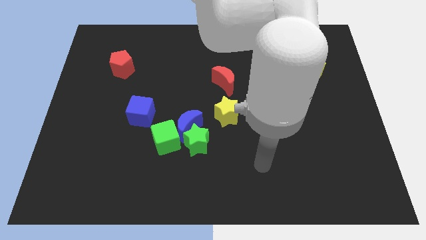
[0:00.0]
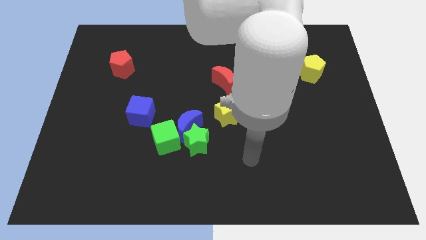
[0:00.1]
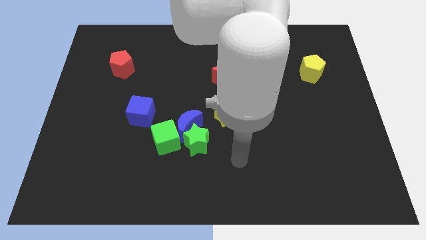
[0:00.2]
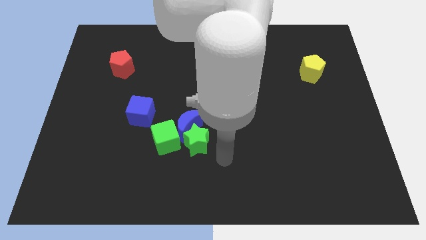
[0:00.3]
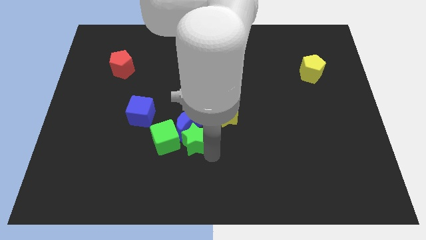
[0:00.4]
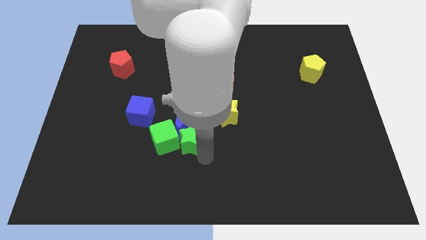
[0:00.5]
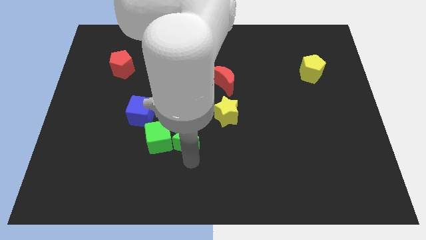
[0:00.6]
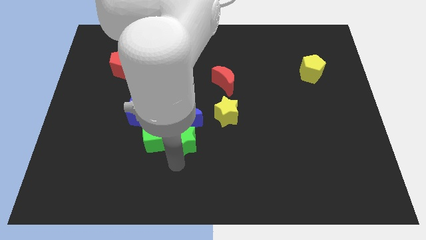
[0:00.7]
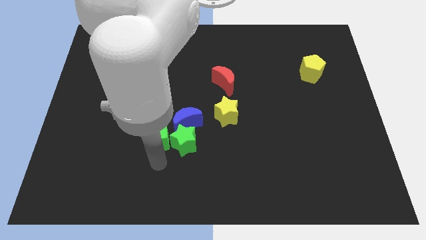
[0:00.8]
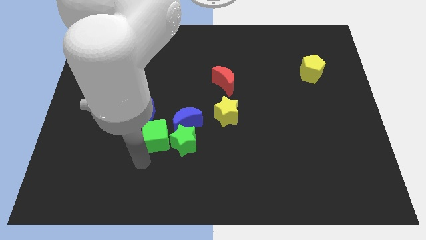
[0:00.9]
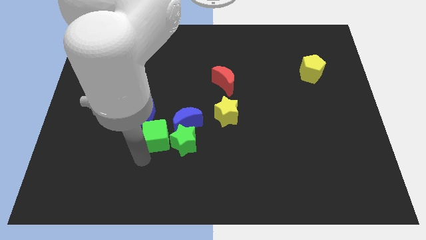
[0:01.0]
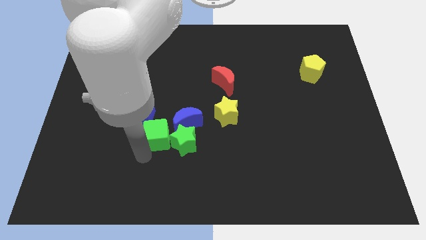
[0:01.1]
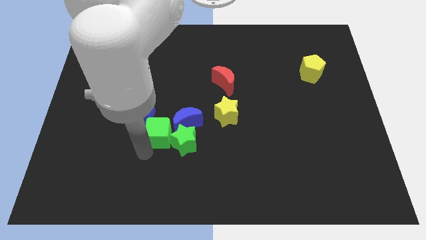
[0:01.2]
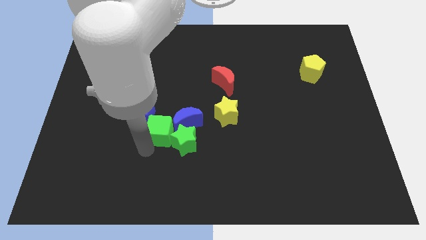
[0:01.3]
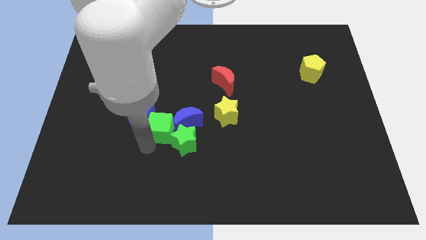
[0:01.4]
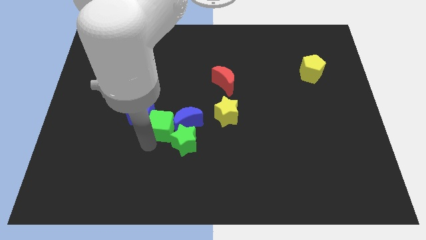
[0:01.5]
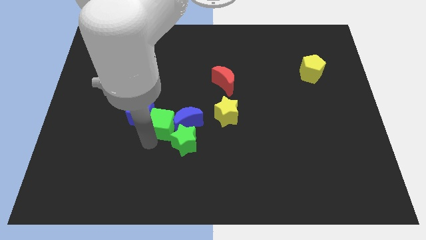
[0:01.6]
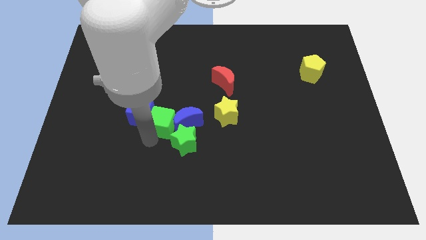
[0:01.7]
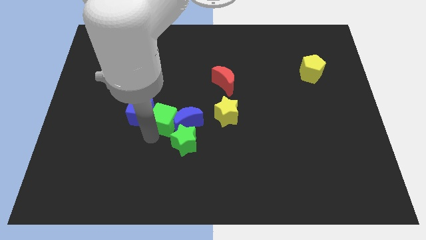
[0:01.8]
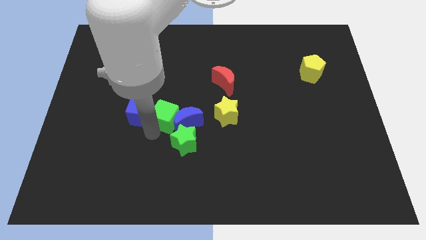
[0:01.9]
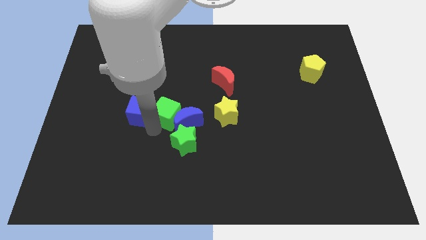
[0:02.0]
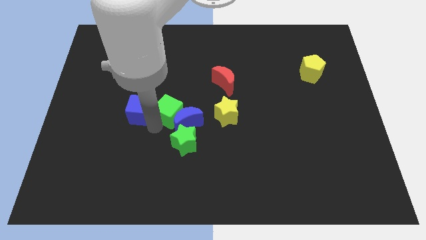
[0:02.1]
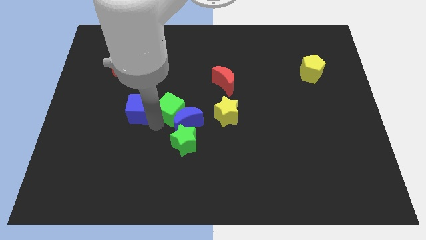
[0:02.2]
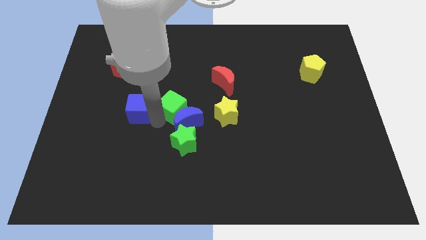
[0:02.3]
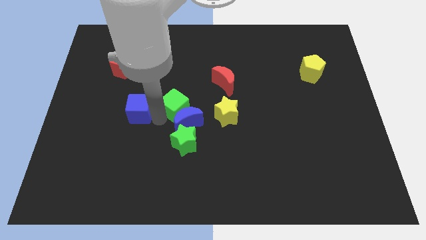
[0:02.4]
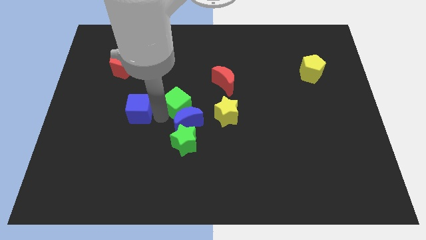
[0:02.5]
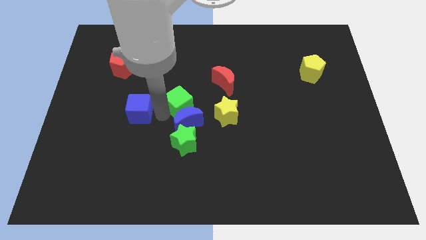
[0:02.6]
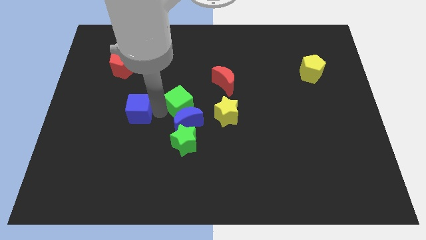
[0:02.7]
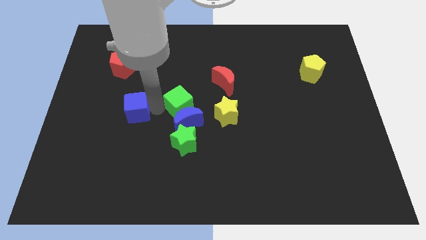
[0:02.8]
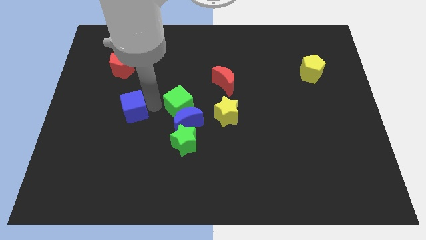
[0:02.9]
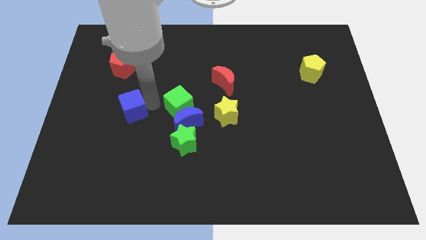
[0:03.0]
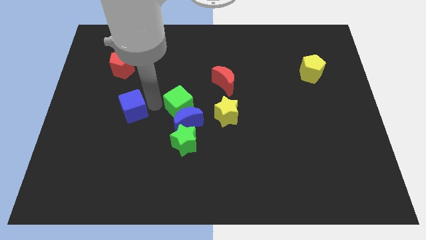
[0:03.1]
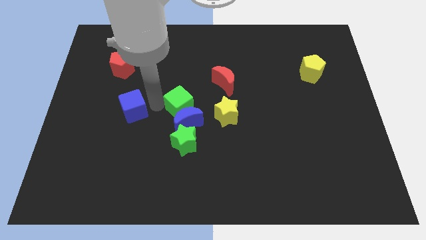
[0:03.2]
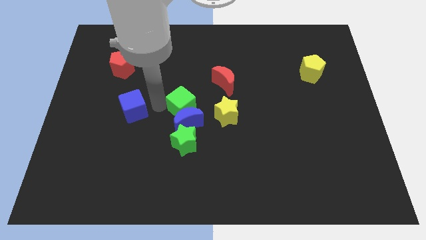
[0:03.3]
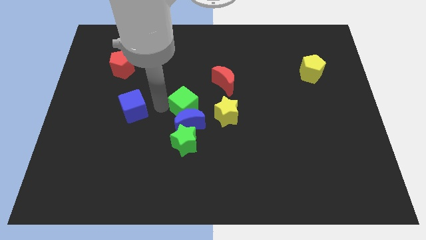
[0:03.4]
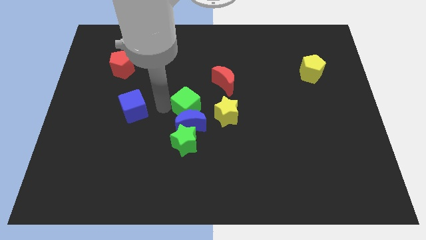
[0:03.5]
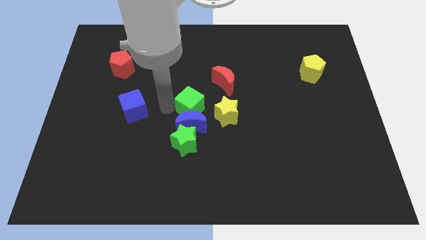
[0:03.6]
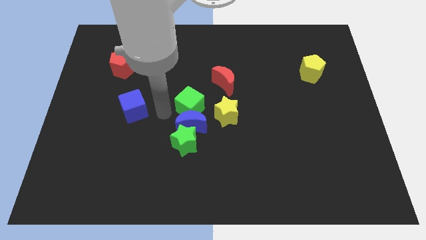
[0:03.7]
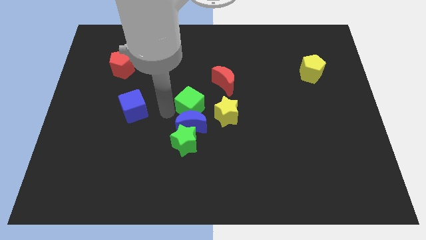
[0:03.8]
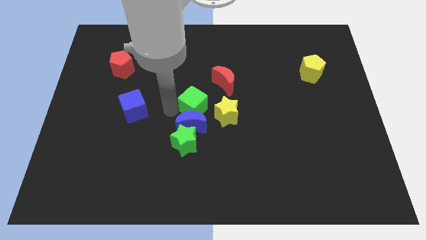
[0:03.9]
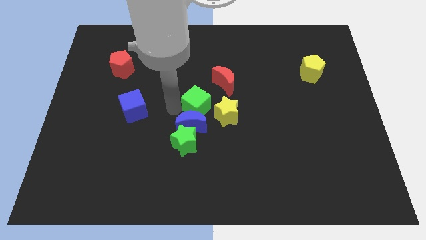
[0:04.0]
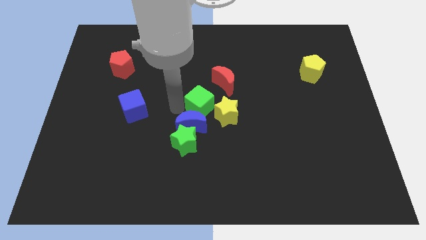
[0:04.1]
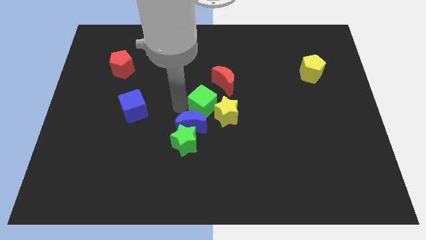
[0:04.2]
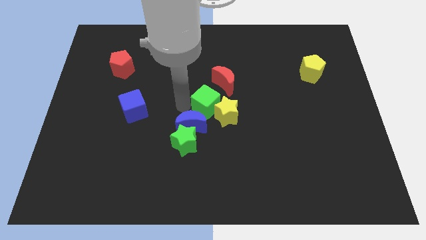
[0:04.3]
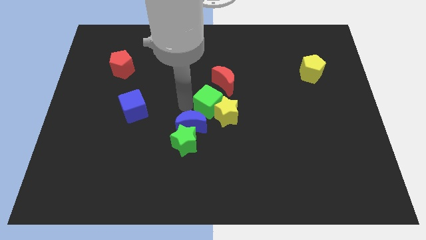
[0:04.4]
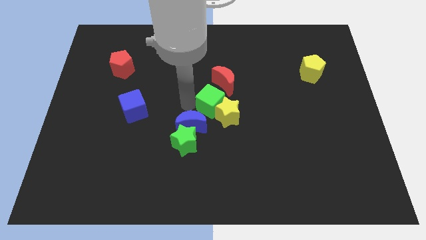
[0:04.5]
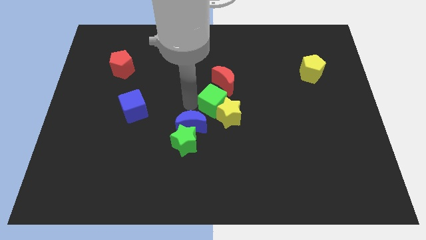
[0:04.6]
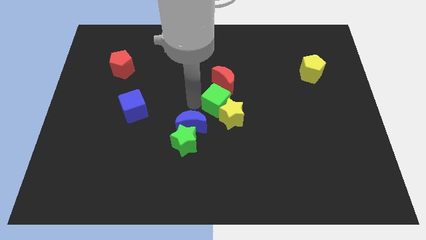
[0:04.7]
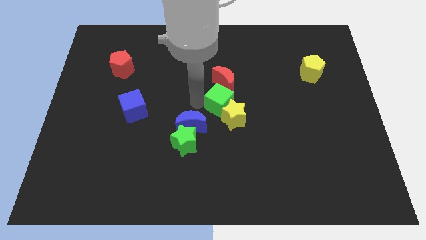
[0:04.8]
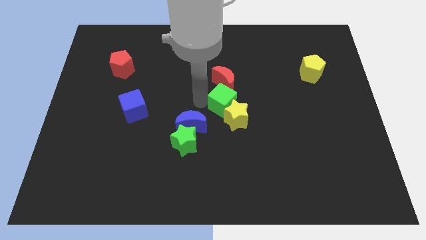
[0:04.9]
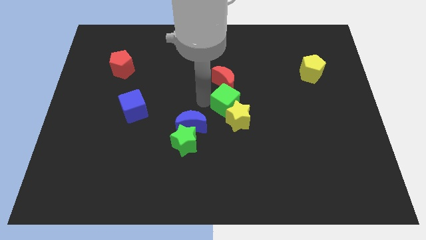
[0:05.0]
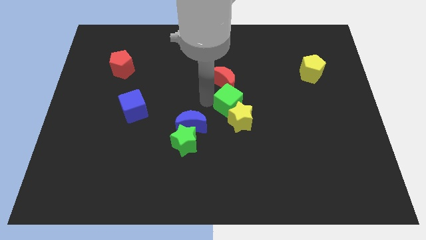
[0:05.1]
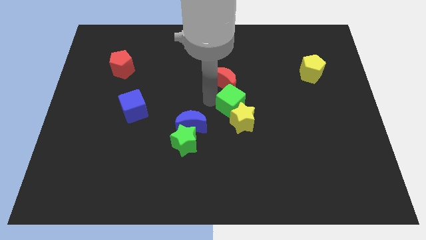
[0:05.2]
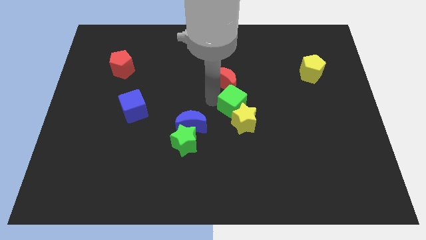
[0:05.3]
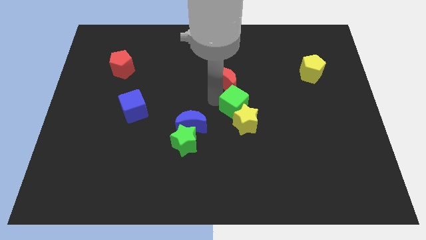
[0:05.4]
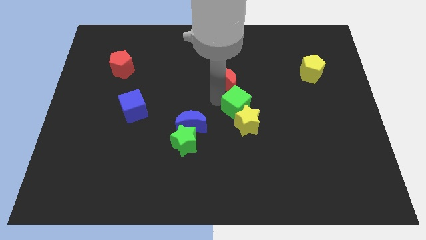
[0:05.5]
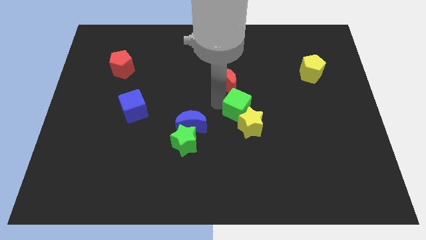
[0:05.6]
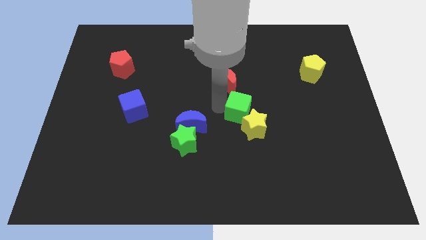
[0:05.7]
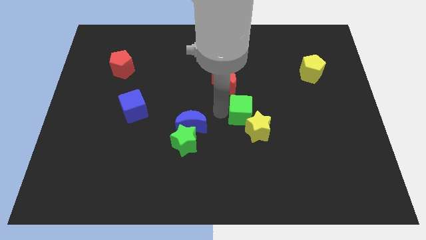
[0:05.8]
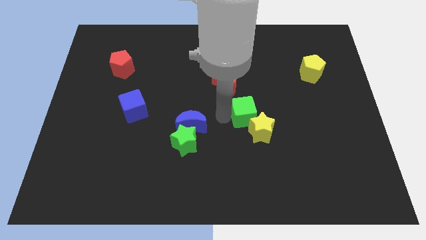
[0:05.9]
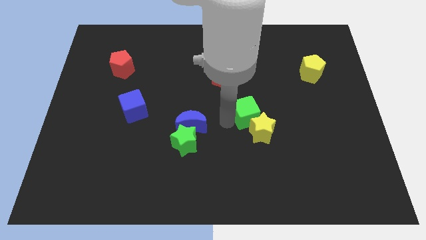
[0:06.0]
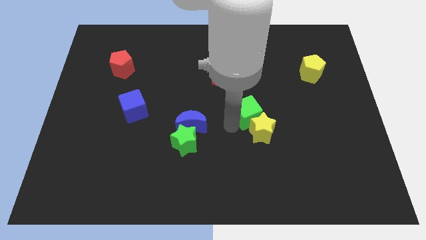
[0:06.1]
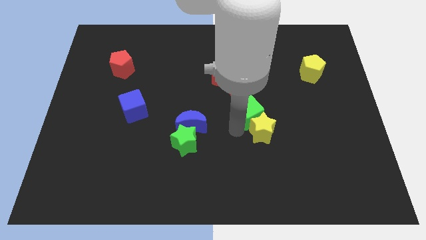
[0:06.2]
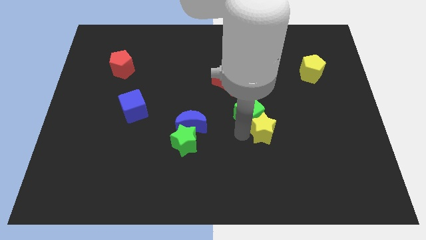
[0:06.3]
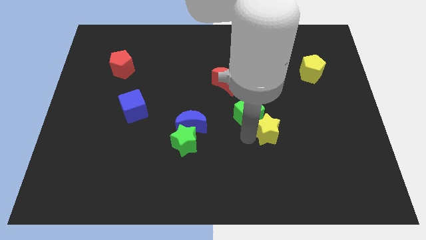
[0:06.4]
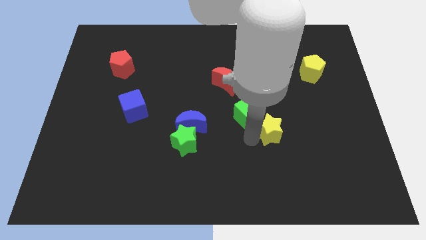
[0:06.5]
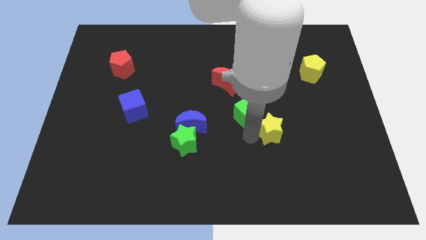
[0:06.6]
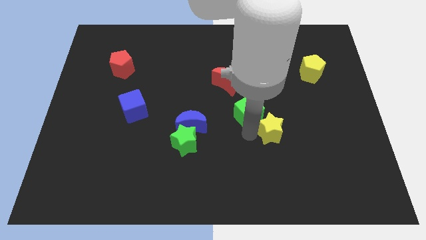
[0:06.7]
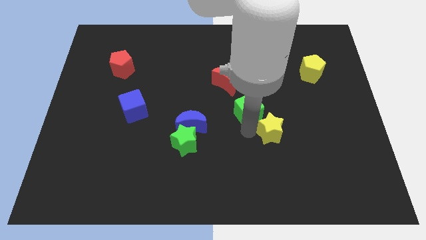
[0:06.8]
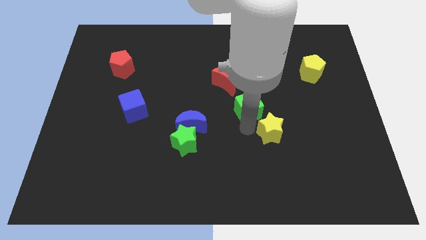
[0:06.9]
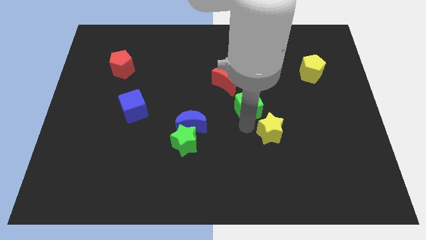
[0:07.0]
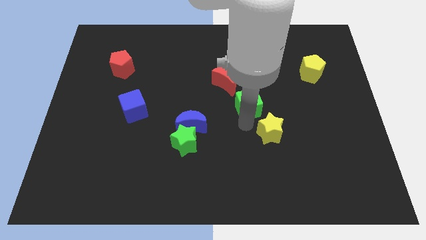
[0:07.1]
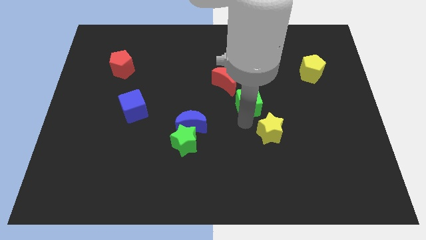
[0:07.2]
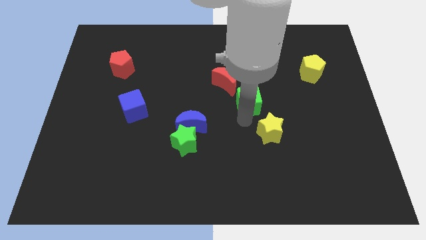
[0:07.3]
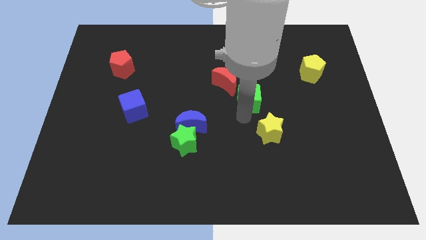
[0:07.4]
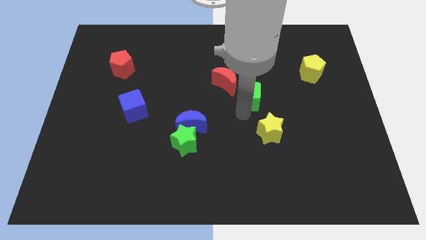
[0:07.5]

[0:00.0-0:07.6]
push the green cube to the right of the red moon

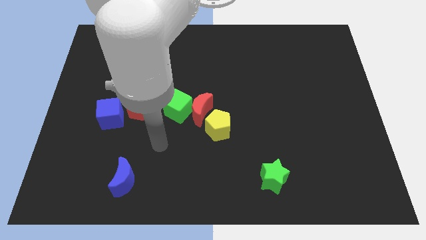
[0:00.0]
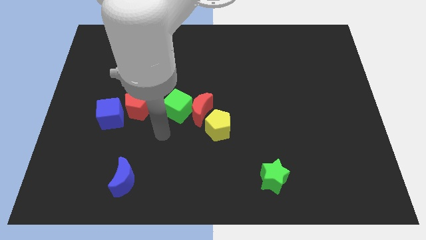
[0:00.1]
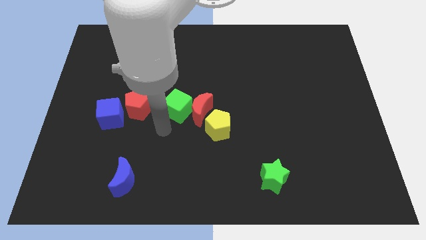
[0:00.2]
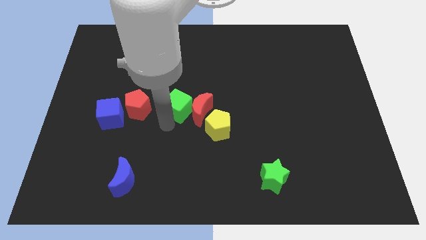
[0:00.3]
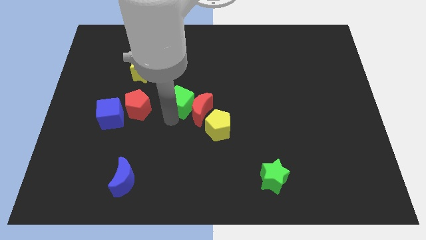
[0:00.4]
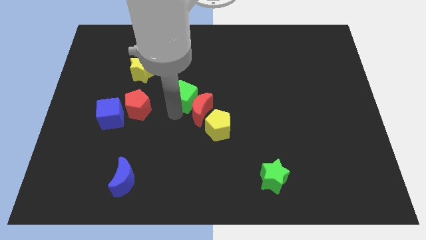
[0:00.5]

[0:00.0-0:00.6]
slide the green cube to the top of the red moon
